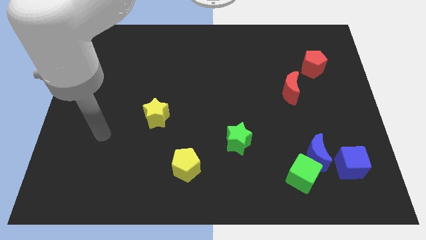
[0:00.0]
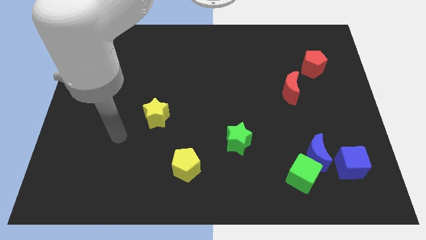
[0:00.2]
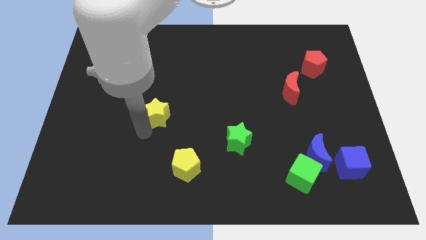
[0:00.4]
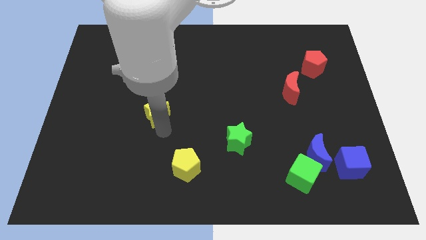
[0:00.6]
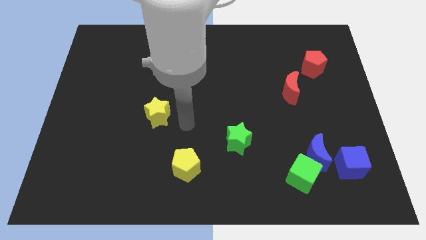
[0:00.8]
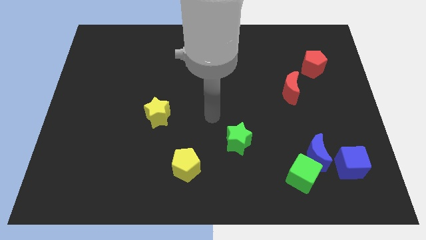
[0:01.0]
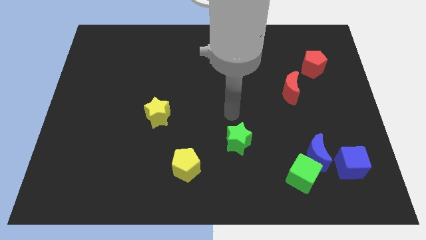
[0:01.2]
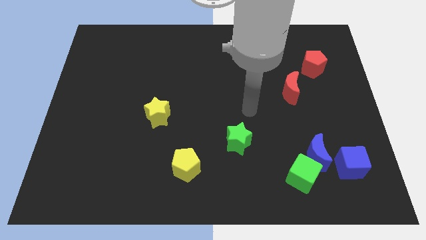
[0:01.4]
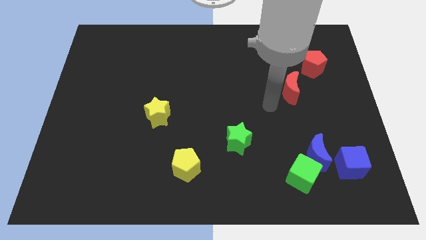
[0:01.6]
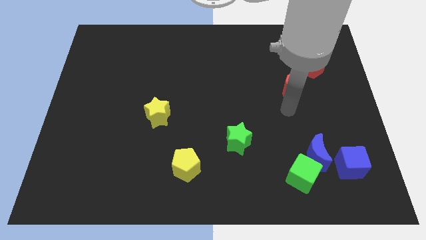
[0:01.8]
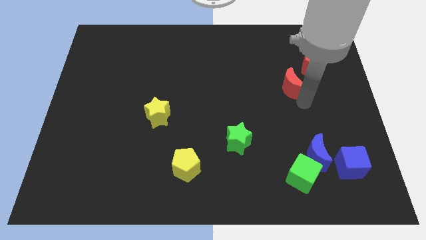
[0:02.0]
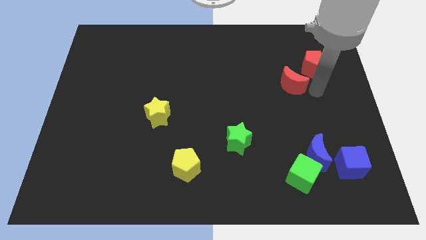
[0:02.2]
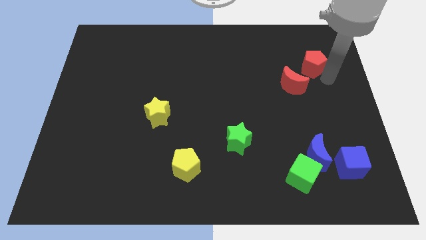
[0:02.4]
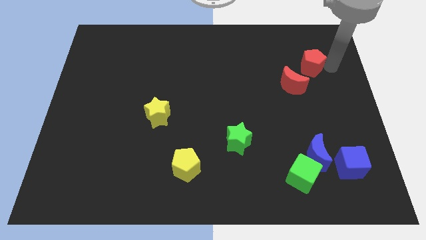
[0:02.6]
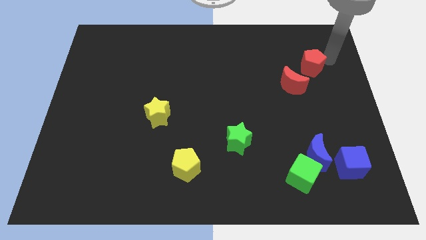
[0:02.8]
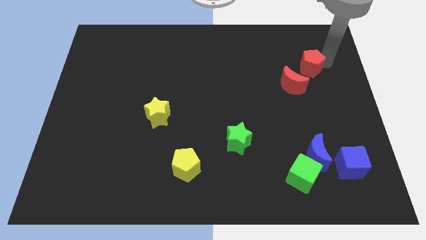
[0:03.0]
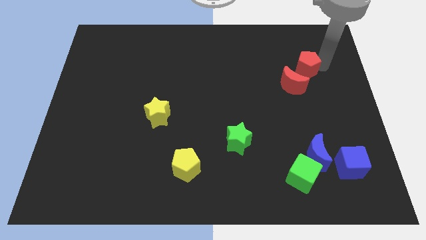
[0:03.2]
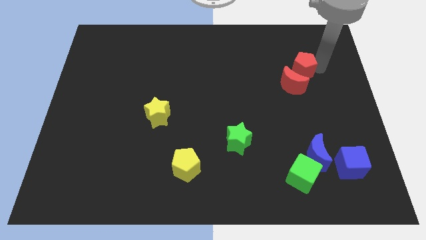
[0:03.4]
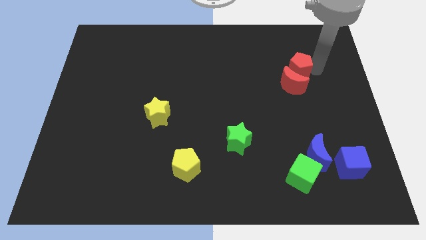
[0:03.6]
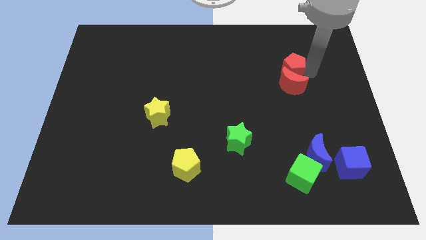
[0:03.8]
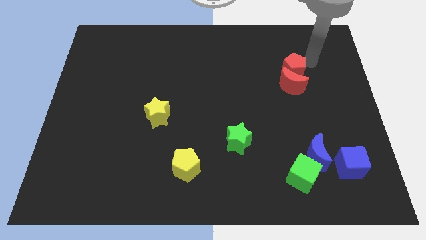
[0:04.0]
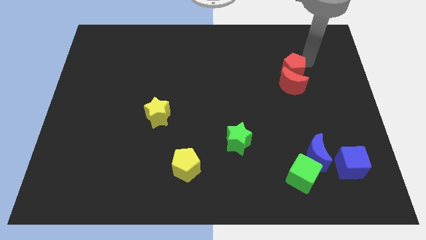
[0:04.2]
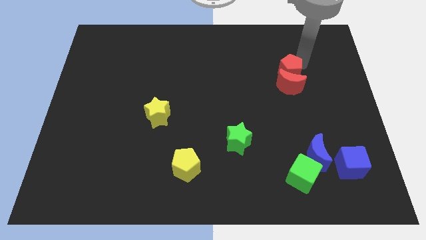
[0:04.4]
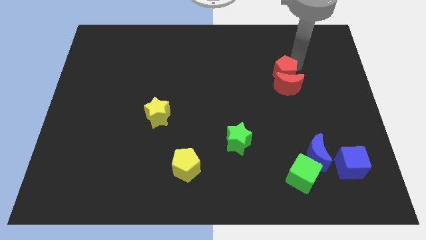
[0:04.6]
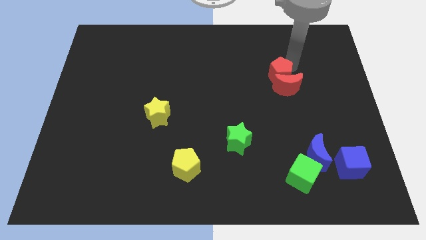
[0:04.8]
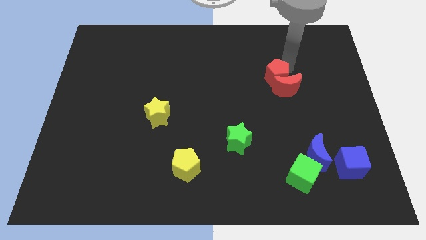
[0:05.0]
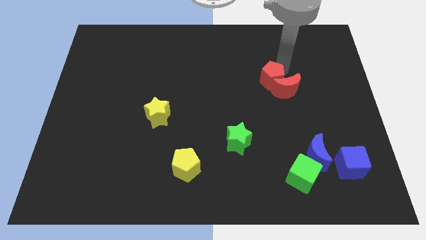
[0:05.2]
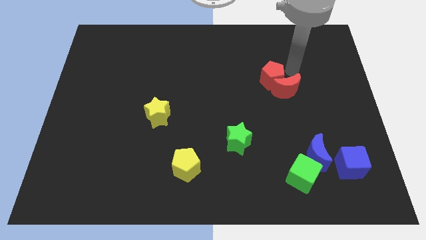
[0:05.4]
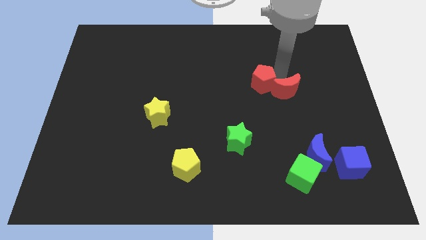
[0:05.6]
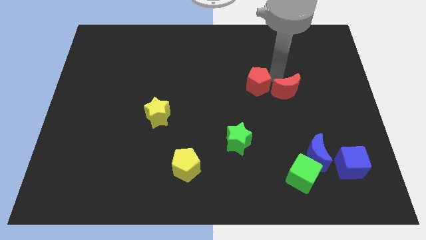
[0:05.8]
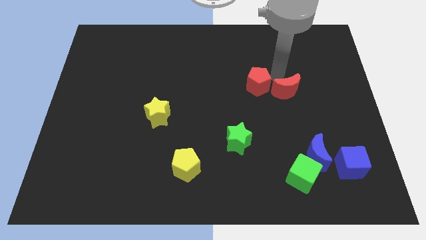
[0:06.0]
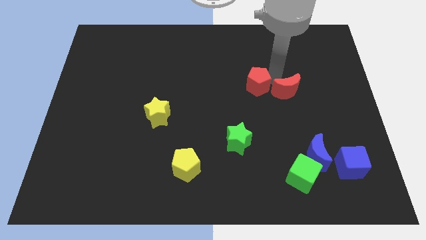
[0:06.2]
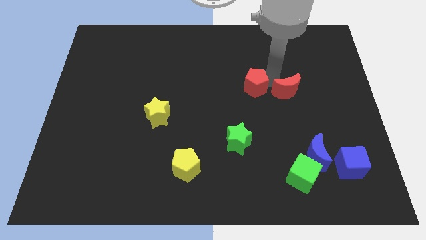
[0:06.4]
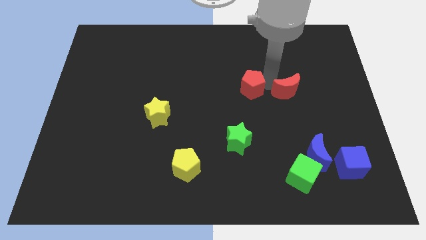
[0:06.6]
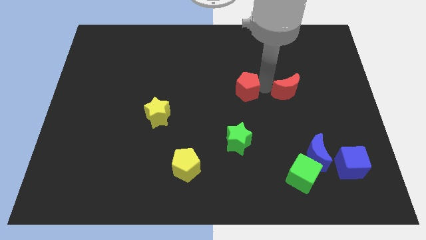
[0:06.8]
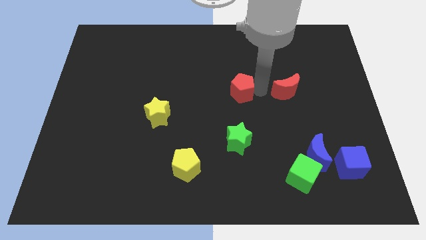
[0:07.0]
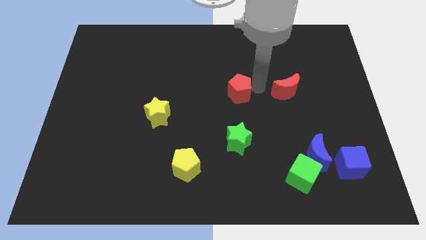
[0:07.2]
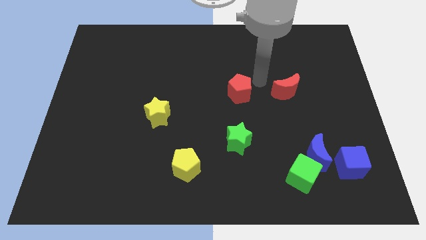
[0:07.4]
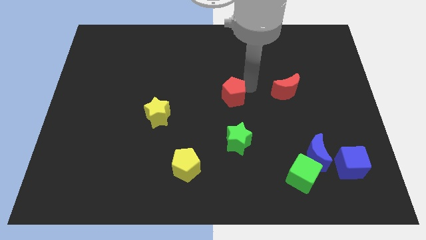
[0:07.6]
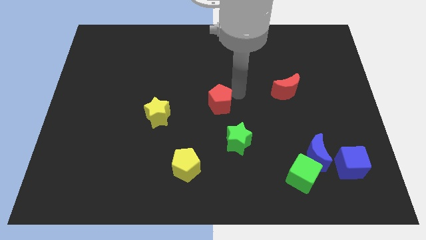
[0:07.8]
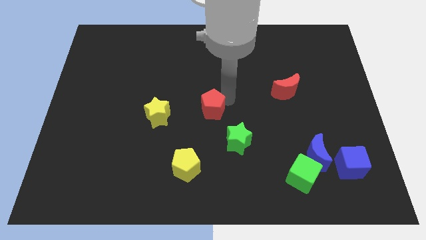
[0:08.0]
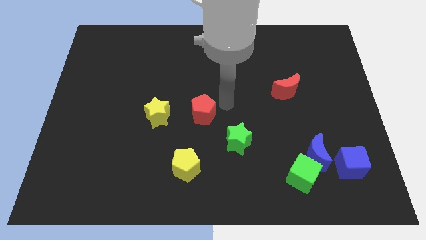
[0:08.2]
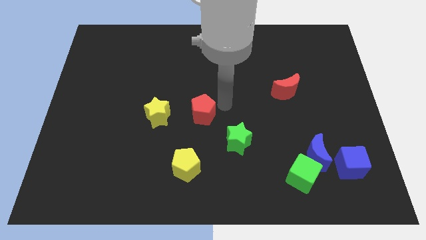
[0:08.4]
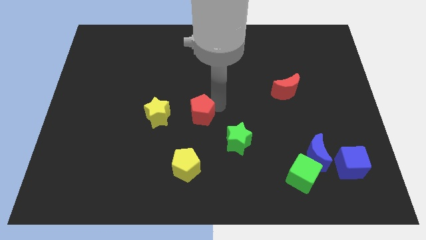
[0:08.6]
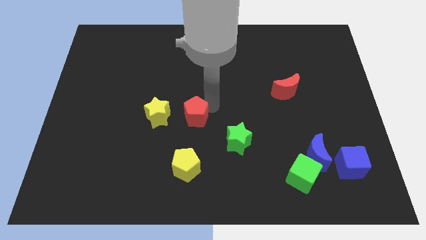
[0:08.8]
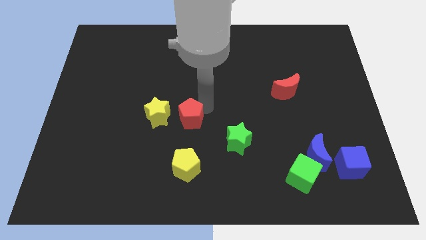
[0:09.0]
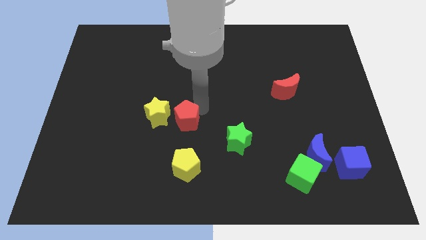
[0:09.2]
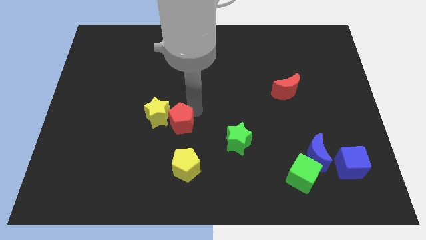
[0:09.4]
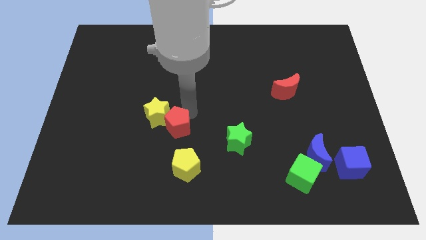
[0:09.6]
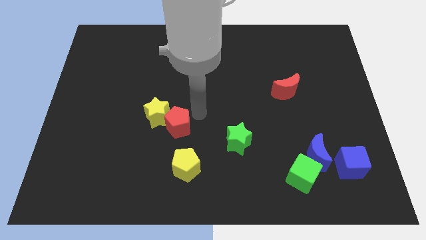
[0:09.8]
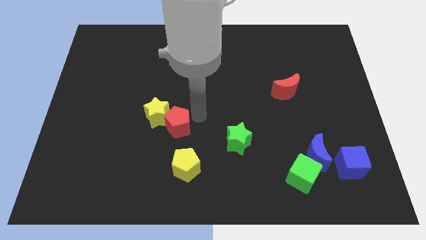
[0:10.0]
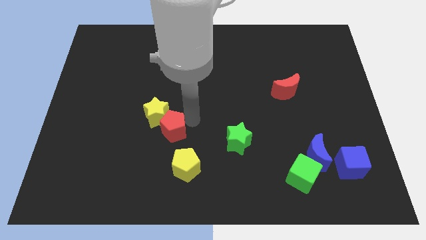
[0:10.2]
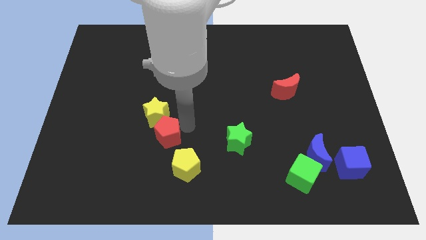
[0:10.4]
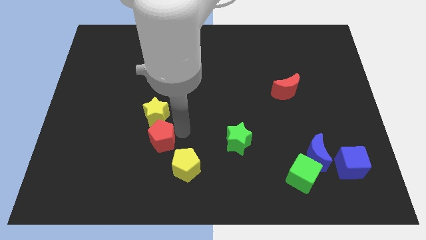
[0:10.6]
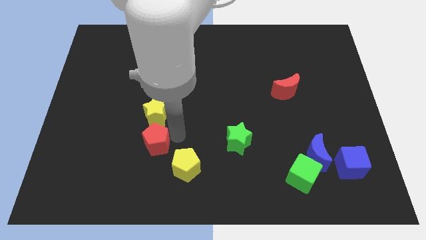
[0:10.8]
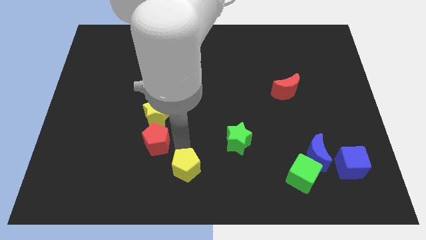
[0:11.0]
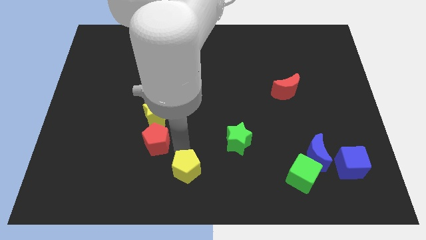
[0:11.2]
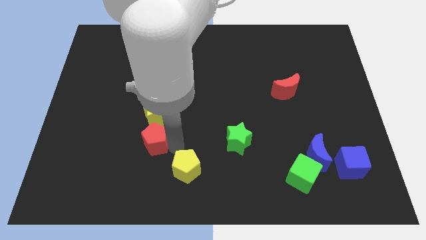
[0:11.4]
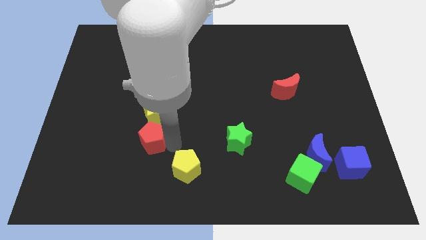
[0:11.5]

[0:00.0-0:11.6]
push the red pentagon to the bottom left of the yellow star

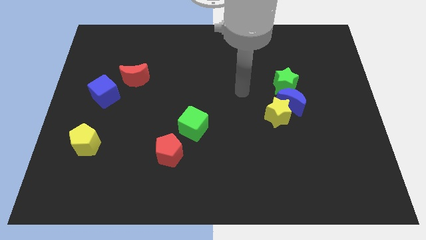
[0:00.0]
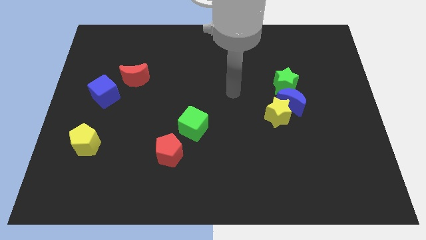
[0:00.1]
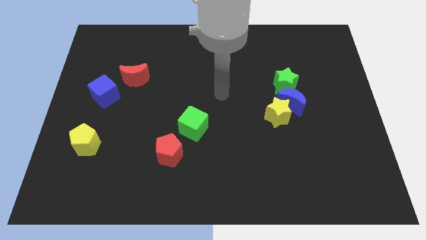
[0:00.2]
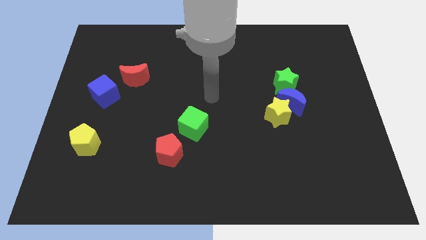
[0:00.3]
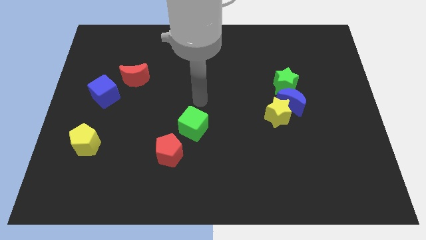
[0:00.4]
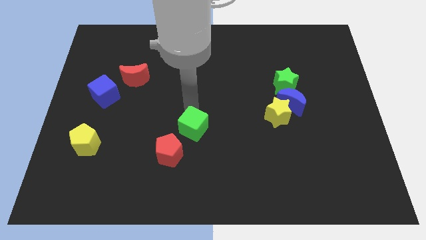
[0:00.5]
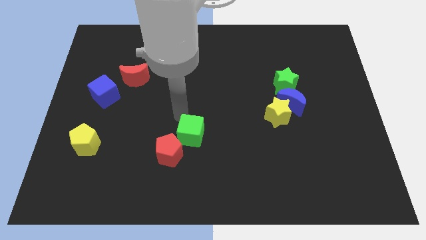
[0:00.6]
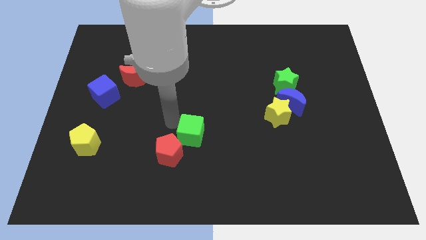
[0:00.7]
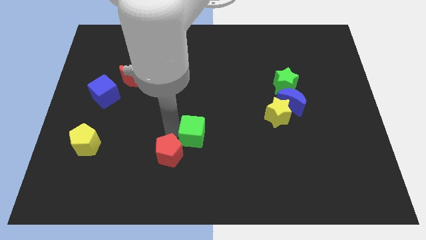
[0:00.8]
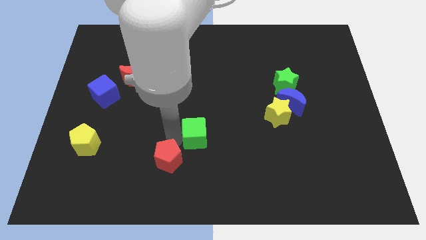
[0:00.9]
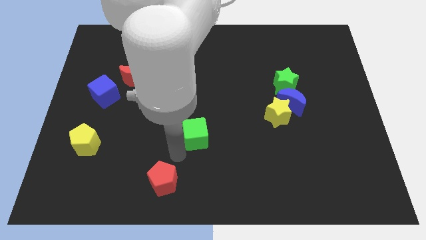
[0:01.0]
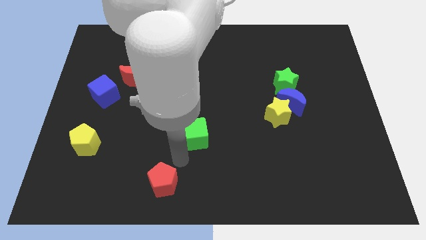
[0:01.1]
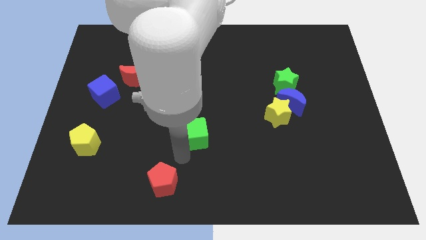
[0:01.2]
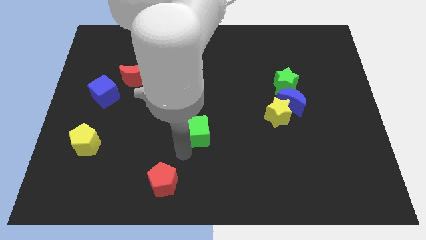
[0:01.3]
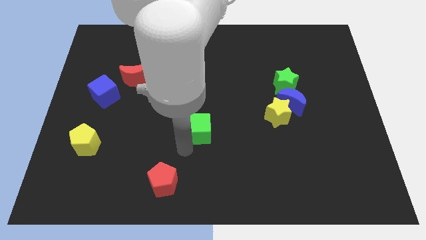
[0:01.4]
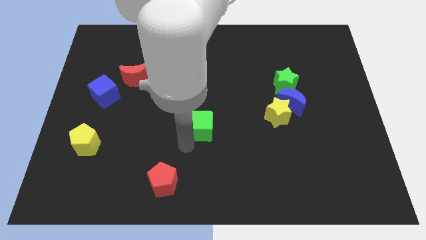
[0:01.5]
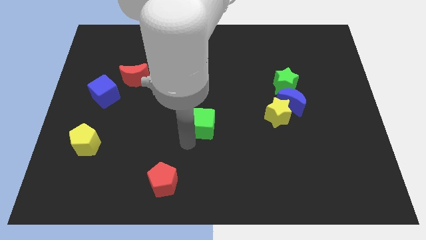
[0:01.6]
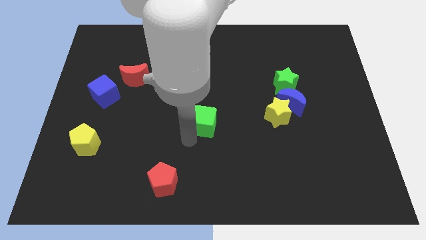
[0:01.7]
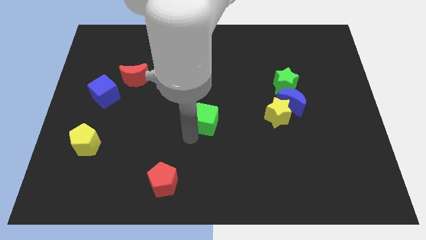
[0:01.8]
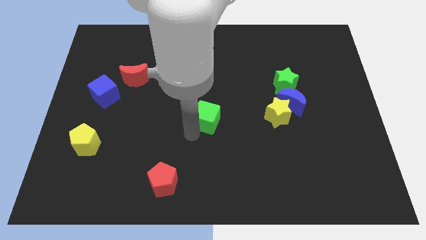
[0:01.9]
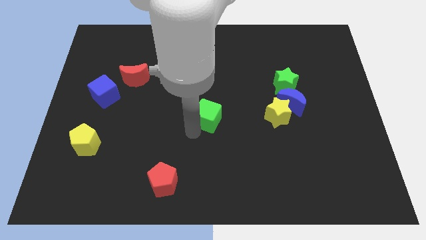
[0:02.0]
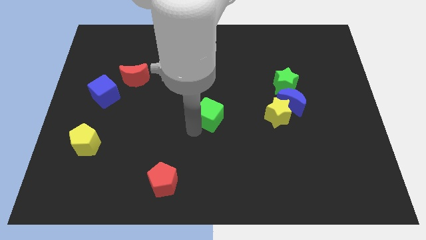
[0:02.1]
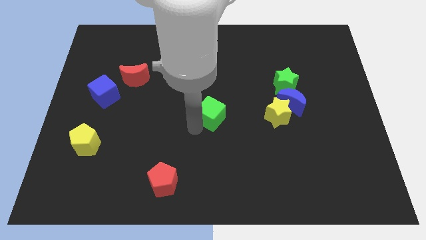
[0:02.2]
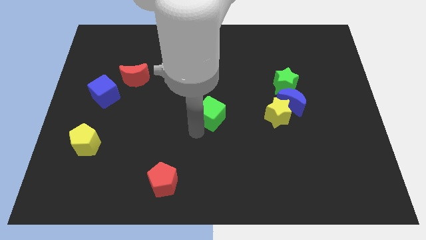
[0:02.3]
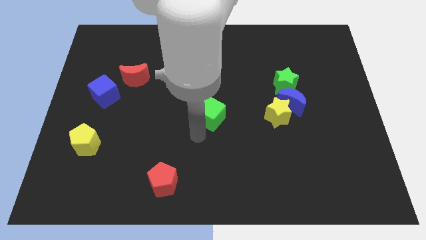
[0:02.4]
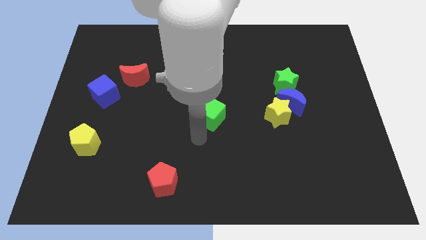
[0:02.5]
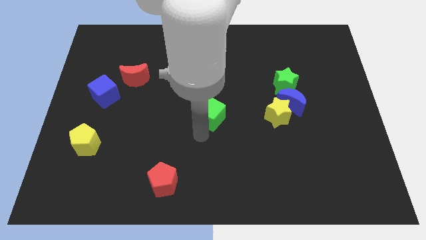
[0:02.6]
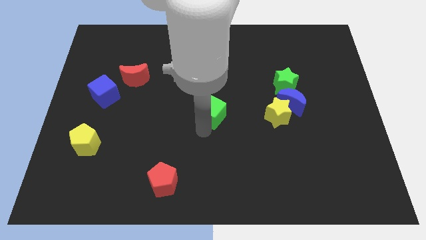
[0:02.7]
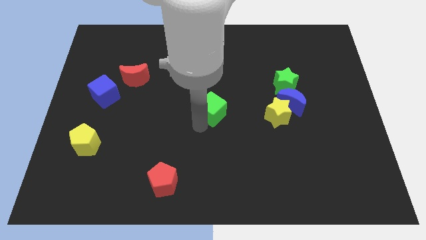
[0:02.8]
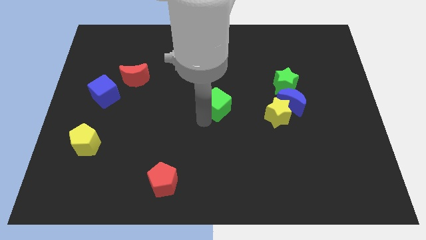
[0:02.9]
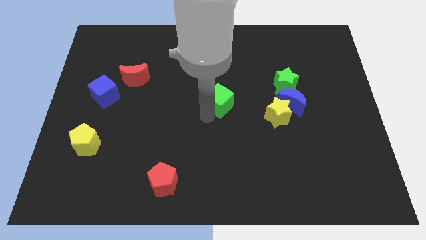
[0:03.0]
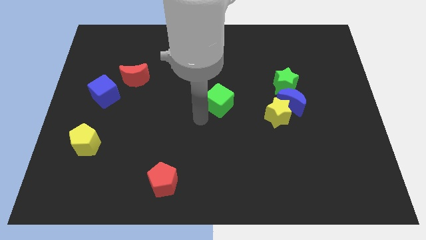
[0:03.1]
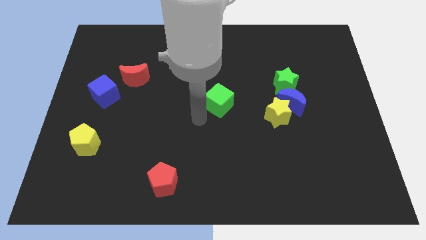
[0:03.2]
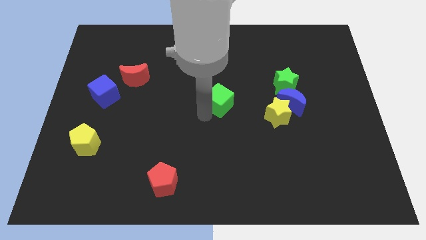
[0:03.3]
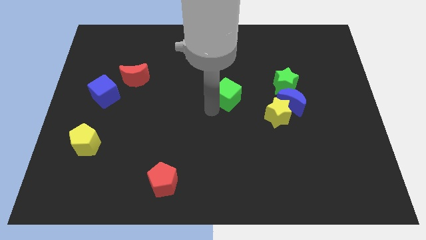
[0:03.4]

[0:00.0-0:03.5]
move the green cube left of the green star
